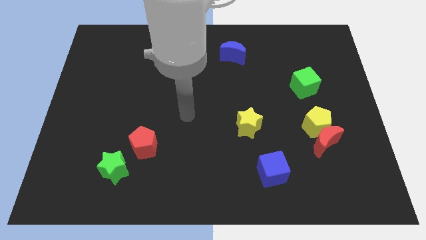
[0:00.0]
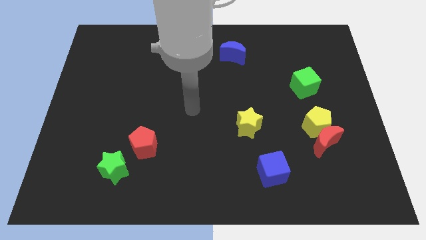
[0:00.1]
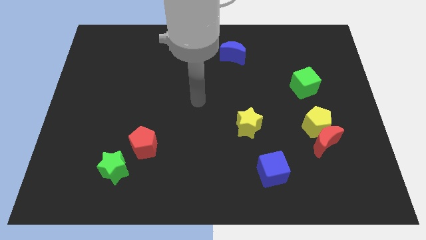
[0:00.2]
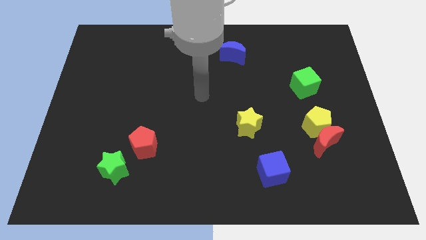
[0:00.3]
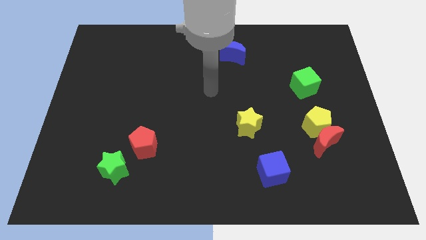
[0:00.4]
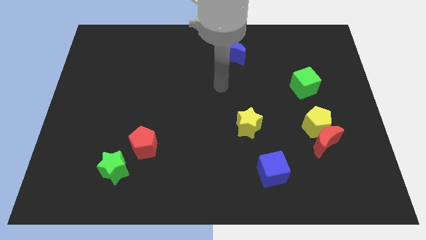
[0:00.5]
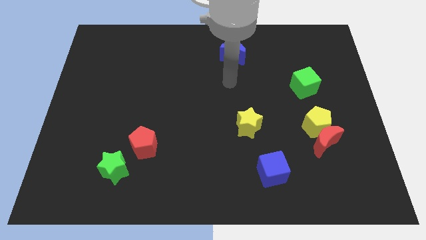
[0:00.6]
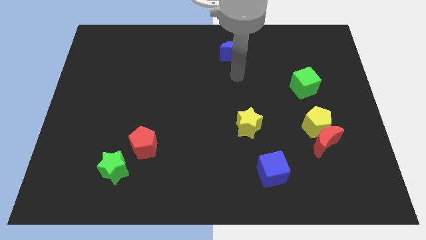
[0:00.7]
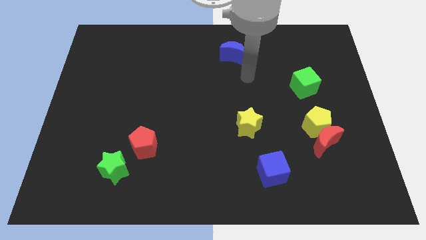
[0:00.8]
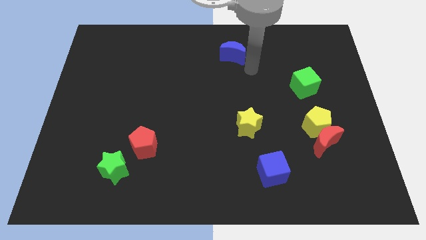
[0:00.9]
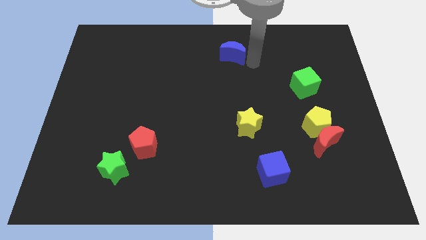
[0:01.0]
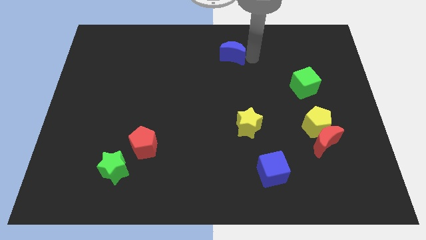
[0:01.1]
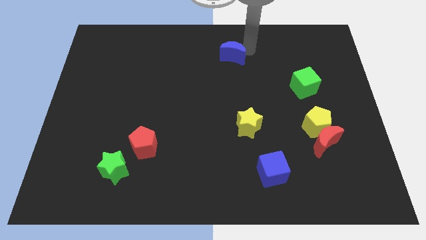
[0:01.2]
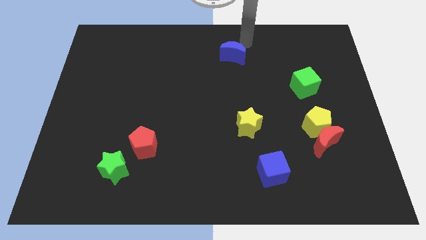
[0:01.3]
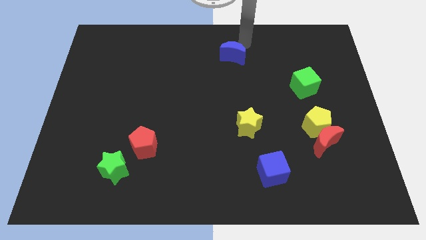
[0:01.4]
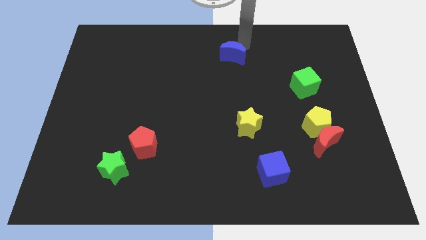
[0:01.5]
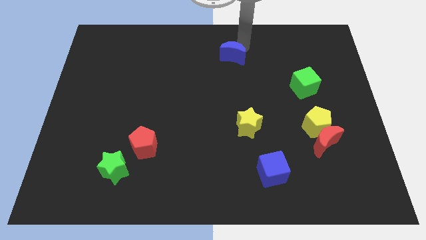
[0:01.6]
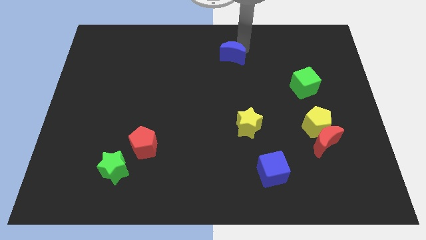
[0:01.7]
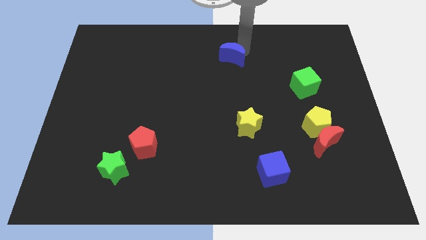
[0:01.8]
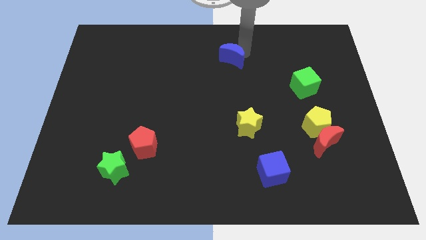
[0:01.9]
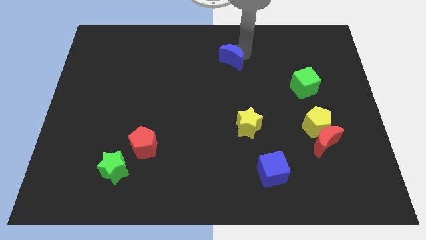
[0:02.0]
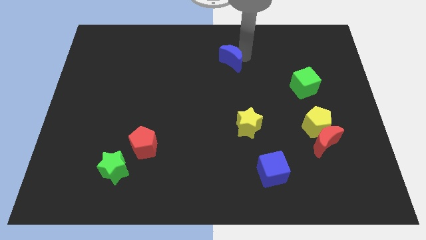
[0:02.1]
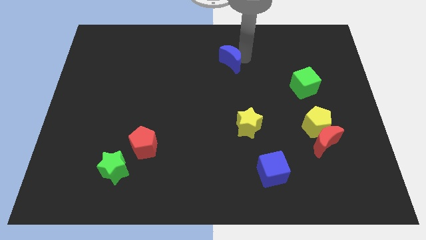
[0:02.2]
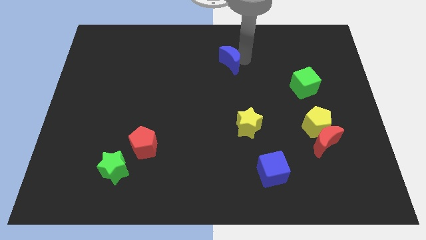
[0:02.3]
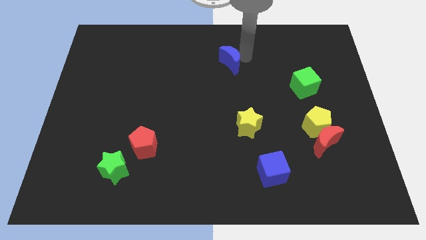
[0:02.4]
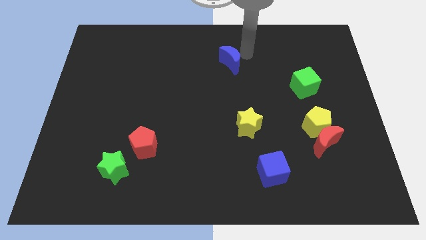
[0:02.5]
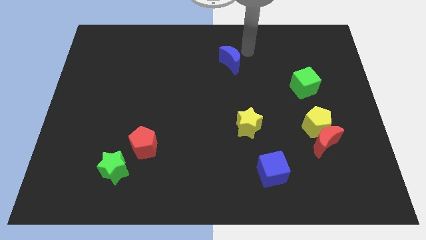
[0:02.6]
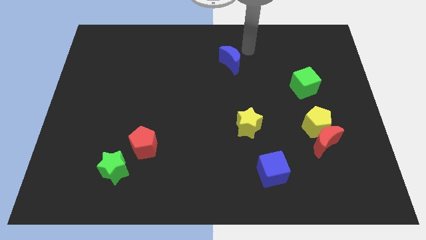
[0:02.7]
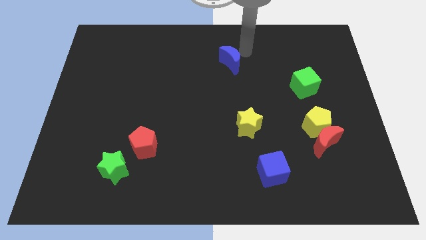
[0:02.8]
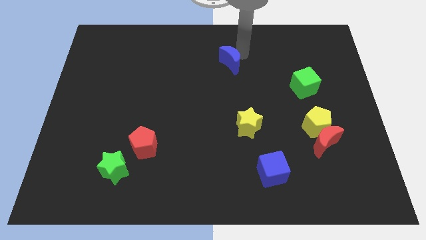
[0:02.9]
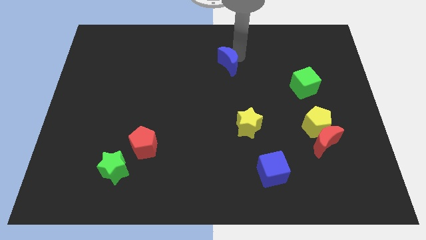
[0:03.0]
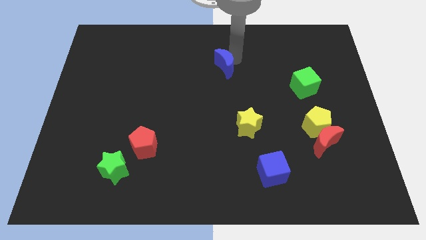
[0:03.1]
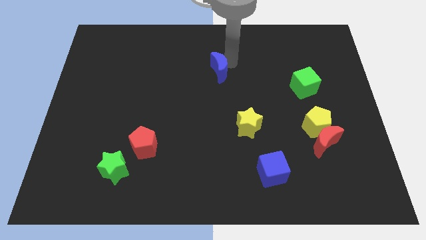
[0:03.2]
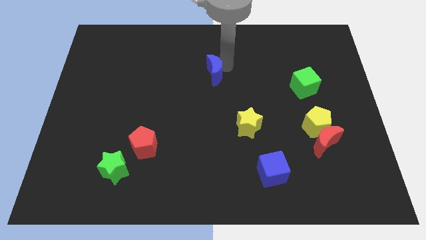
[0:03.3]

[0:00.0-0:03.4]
push the blue moon down and to the left a little

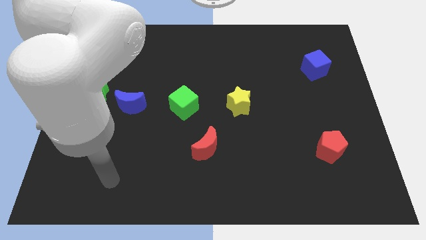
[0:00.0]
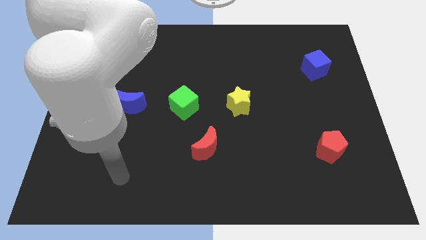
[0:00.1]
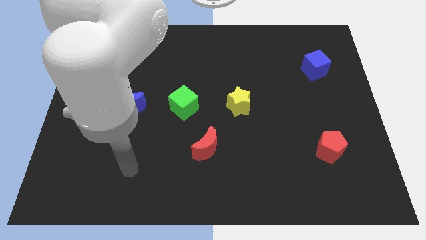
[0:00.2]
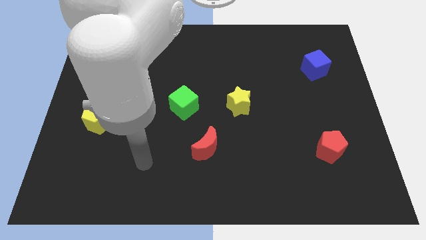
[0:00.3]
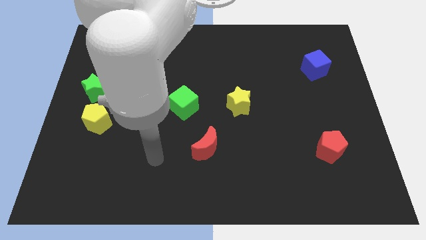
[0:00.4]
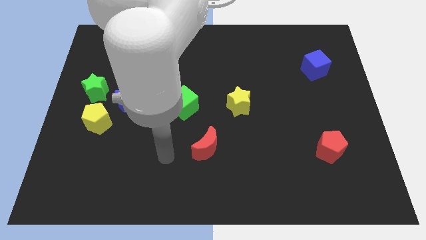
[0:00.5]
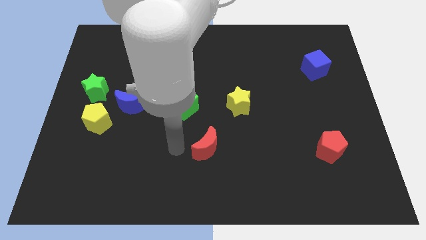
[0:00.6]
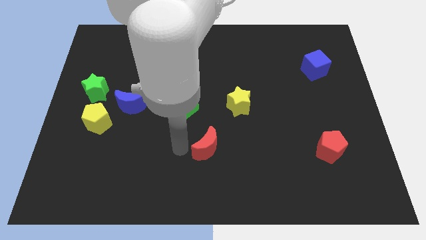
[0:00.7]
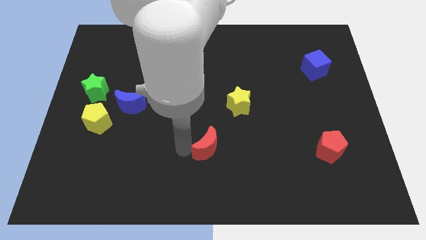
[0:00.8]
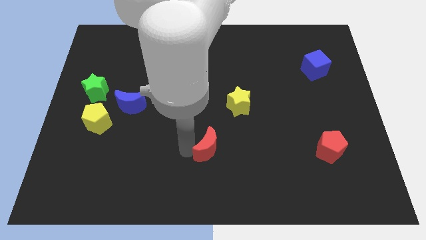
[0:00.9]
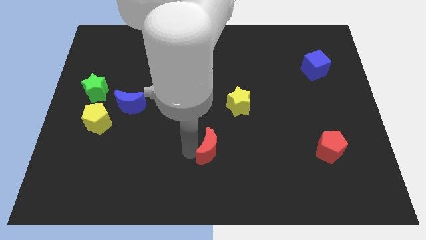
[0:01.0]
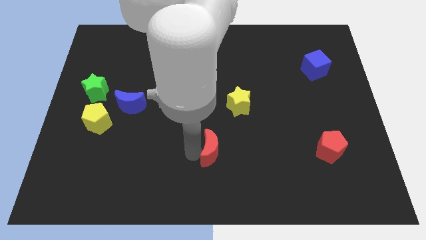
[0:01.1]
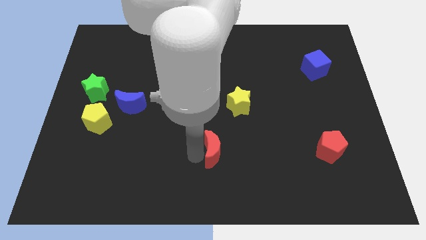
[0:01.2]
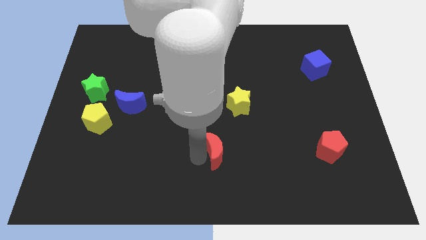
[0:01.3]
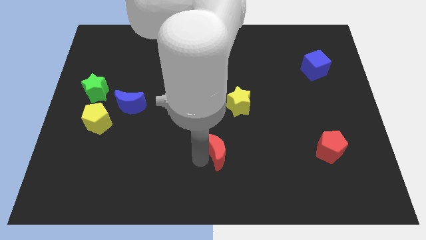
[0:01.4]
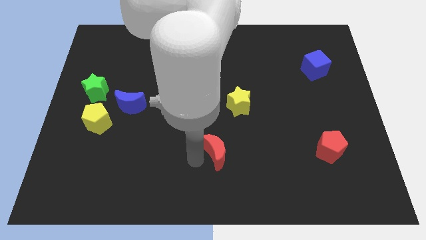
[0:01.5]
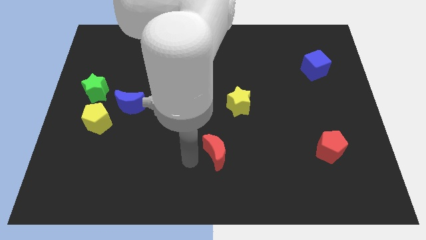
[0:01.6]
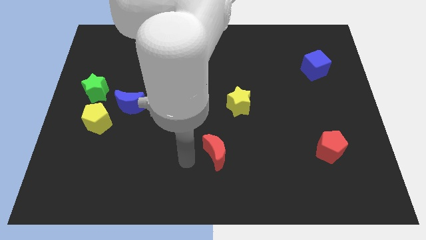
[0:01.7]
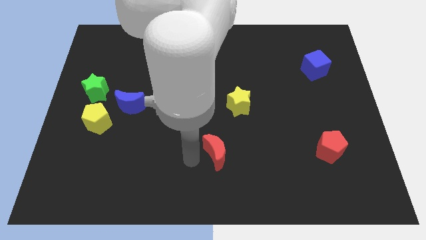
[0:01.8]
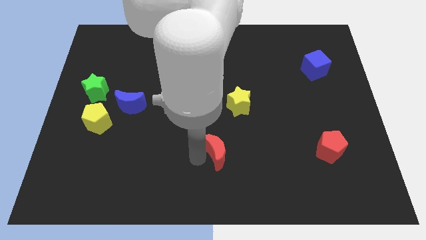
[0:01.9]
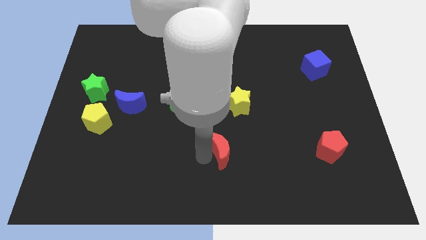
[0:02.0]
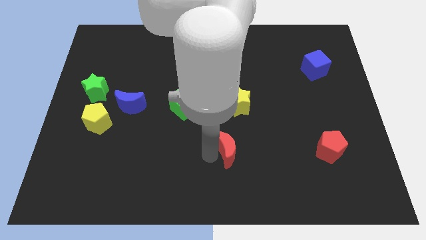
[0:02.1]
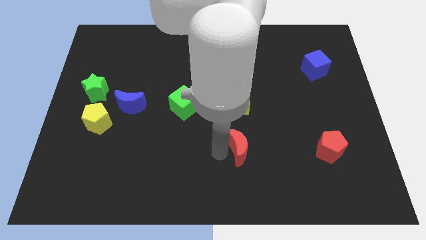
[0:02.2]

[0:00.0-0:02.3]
push the red moon a little right

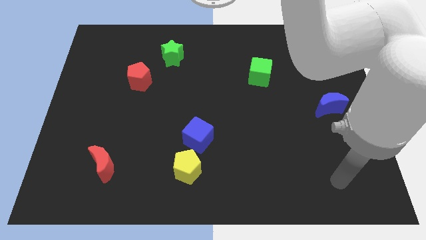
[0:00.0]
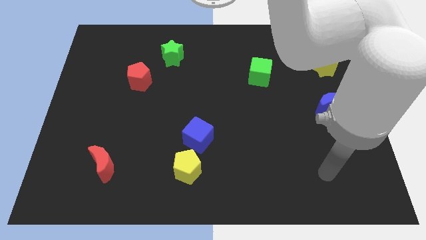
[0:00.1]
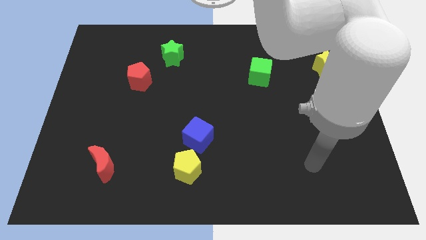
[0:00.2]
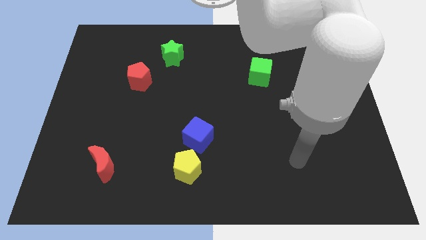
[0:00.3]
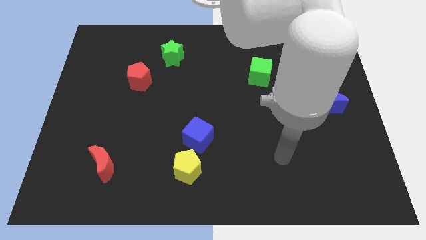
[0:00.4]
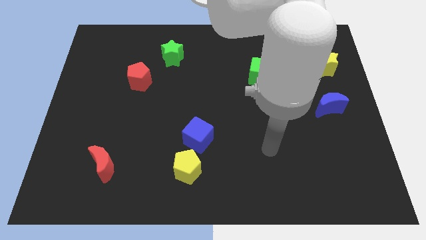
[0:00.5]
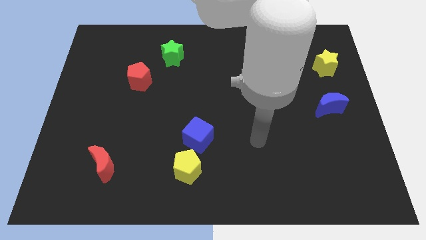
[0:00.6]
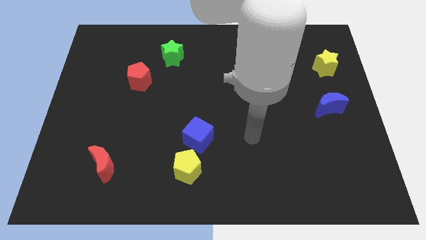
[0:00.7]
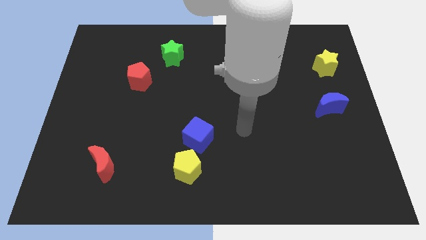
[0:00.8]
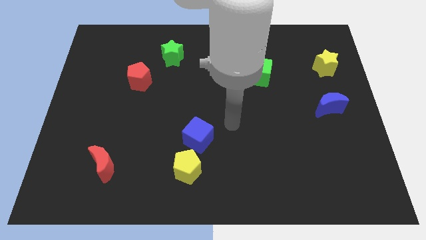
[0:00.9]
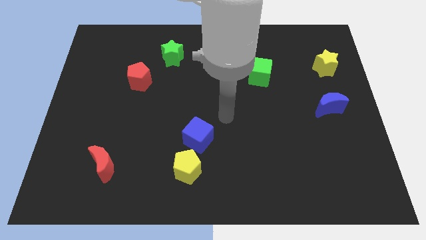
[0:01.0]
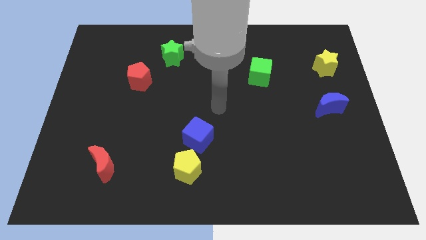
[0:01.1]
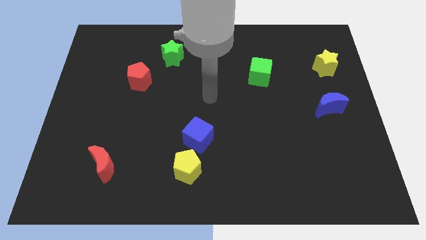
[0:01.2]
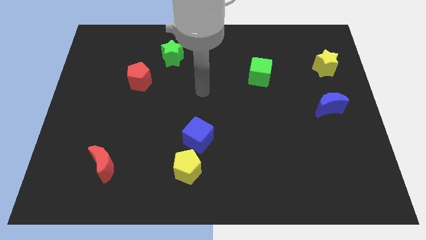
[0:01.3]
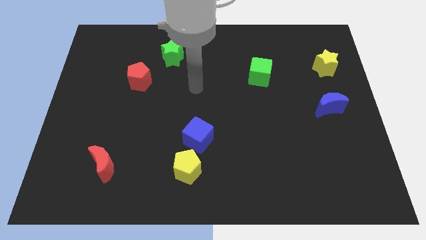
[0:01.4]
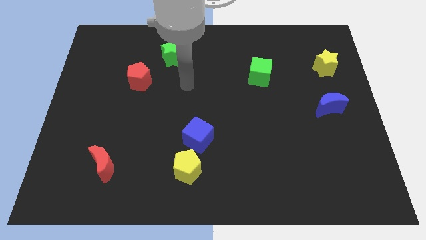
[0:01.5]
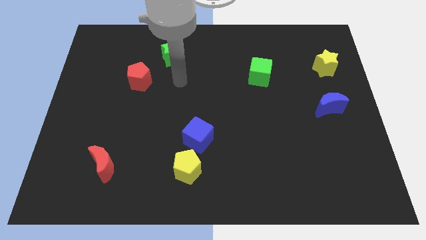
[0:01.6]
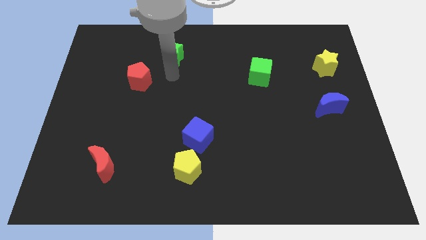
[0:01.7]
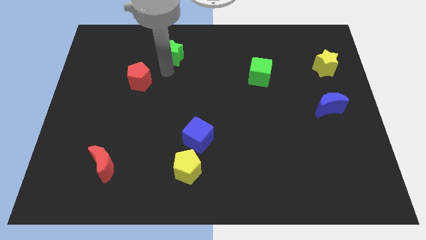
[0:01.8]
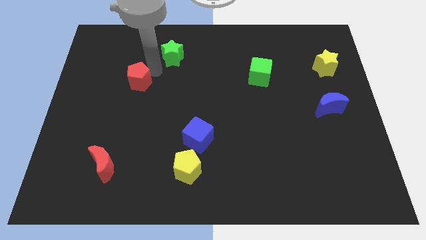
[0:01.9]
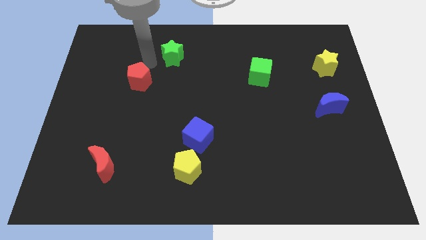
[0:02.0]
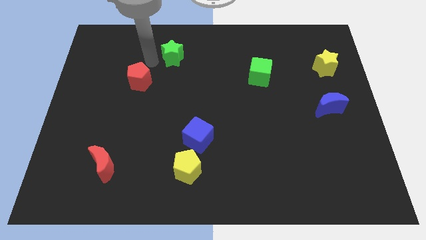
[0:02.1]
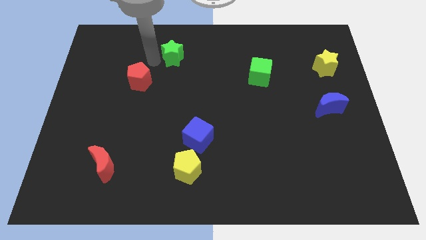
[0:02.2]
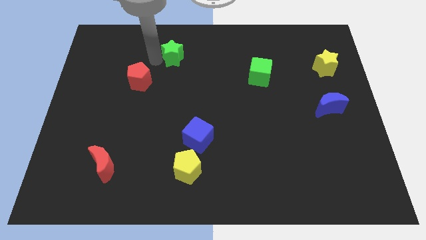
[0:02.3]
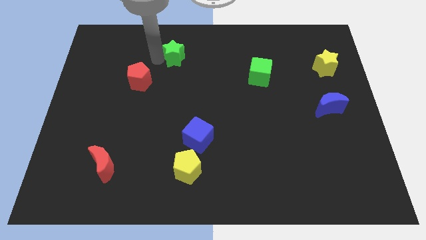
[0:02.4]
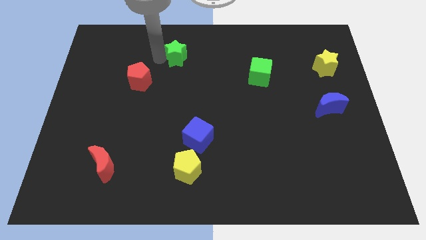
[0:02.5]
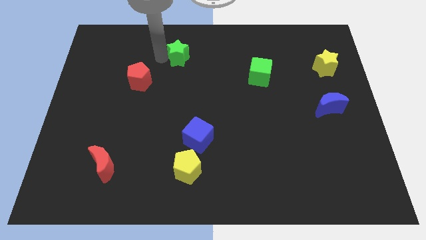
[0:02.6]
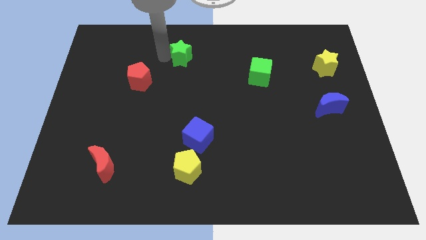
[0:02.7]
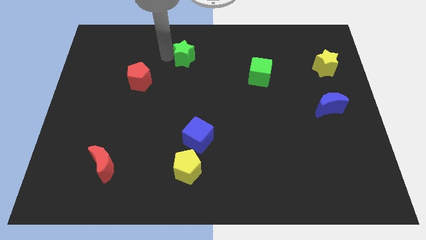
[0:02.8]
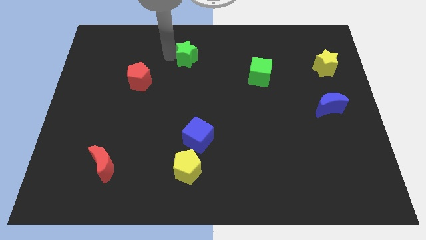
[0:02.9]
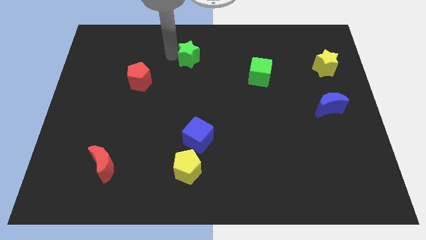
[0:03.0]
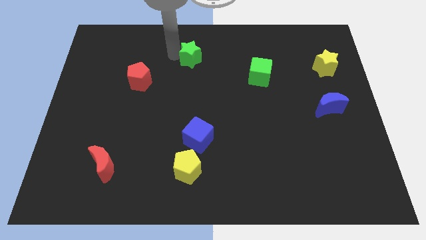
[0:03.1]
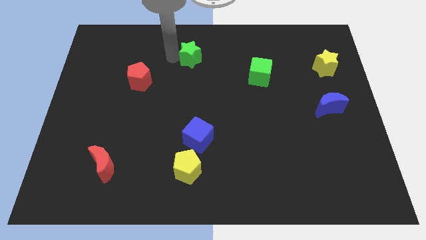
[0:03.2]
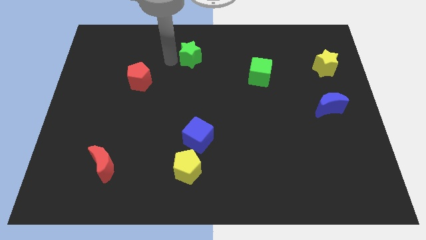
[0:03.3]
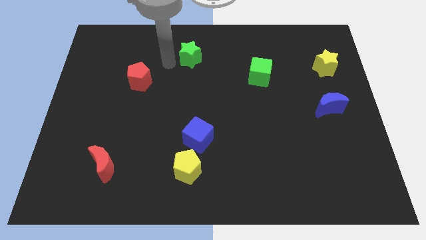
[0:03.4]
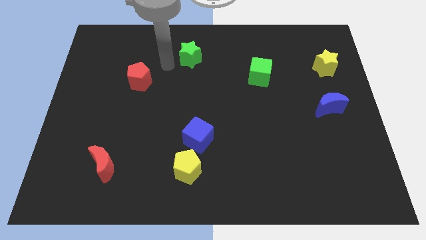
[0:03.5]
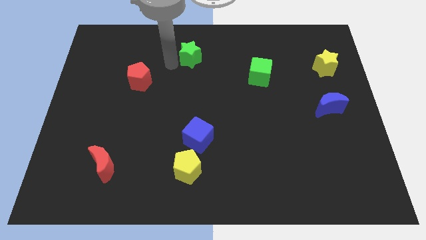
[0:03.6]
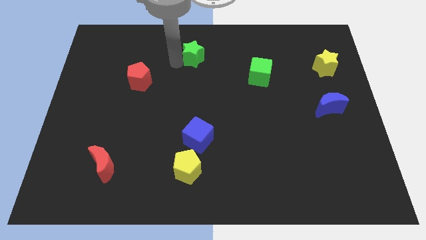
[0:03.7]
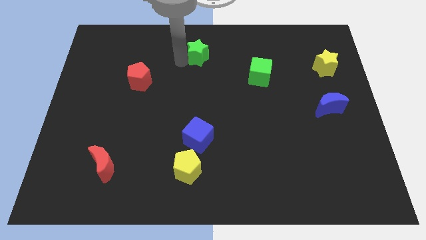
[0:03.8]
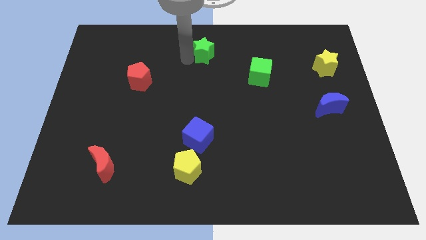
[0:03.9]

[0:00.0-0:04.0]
push the green star a little bit to the right
